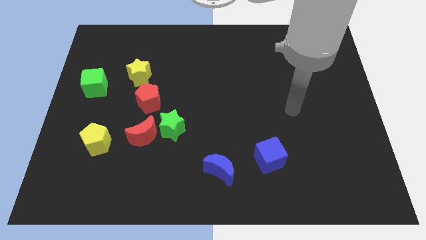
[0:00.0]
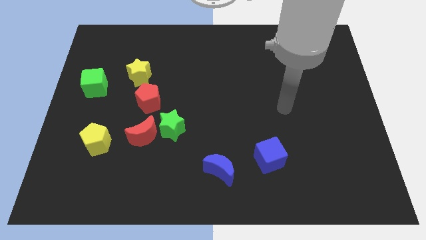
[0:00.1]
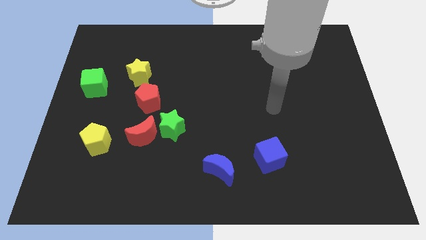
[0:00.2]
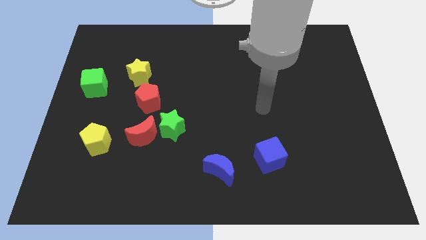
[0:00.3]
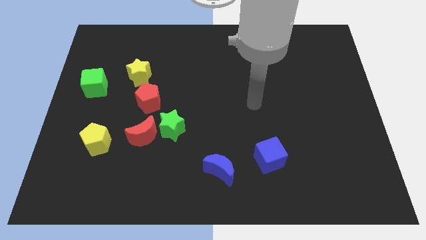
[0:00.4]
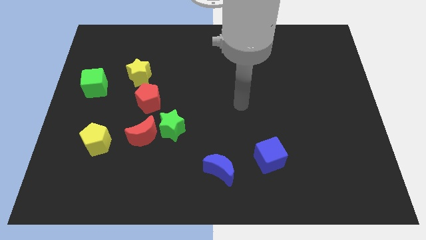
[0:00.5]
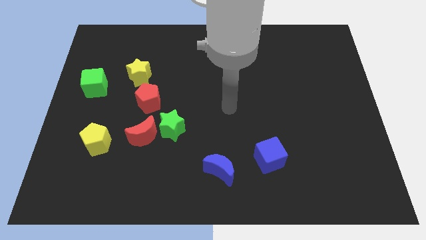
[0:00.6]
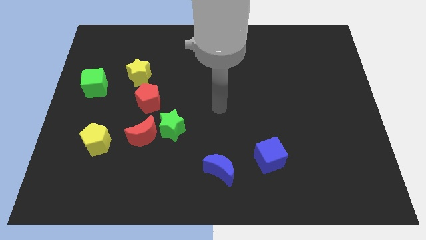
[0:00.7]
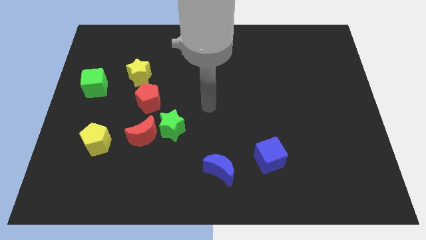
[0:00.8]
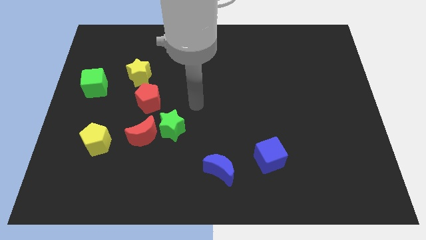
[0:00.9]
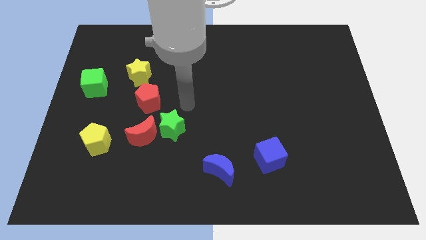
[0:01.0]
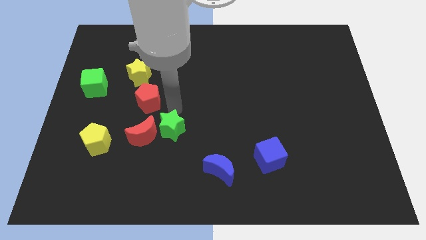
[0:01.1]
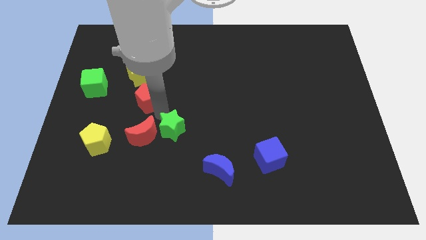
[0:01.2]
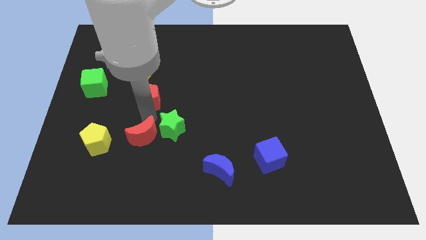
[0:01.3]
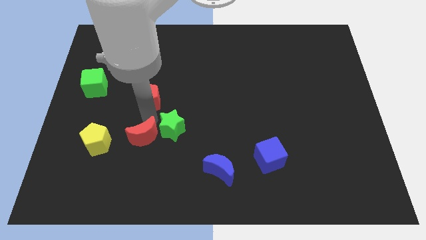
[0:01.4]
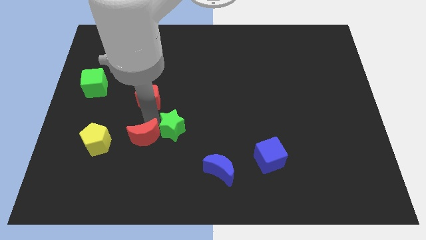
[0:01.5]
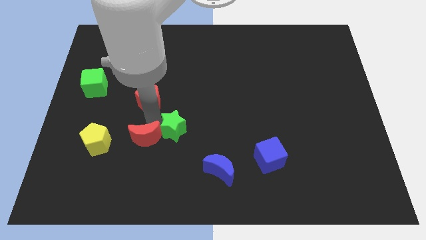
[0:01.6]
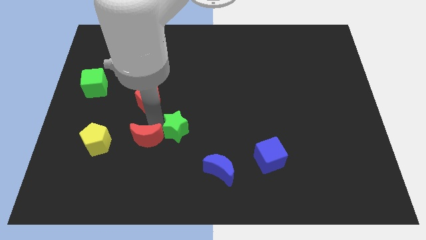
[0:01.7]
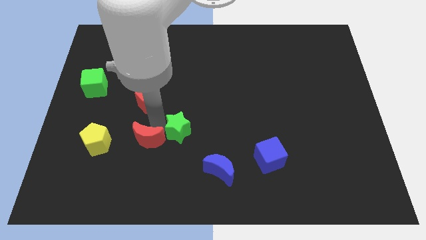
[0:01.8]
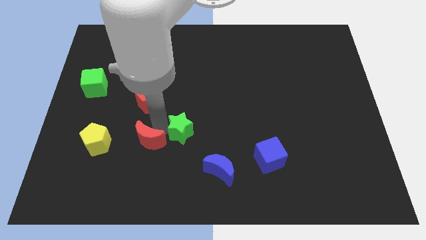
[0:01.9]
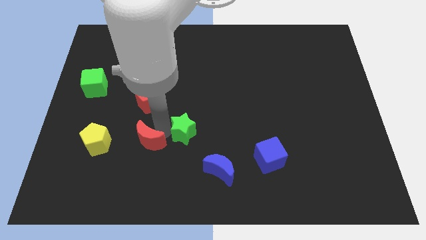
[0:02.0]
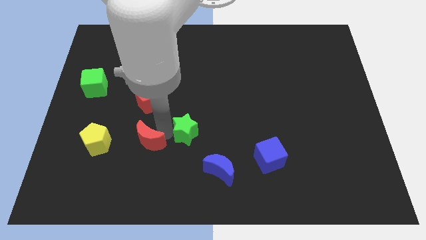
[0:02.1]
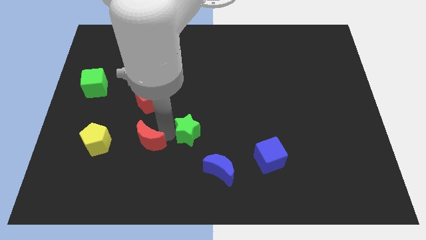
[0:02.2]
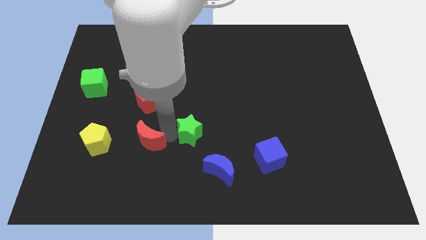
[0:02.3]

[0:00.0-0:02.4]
pull the green star apart from the red moon and red pentagon

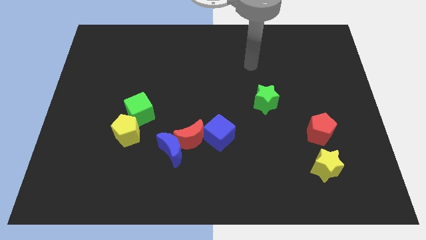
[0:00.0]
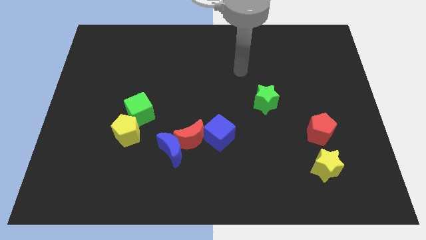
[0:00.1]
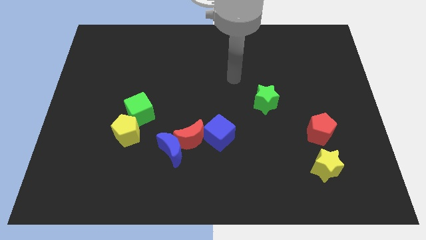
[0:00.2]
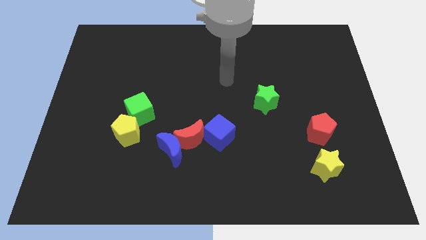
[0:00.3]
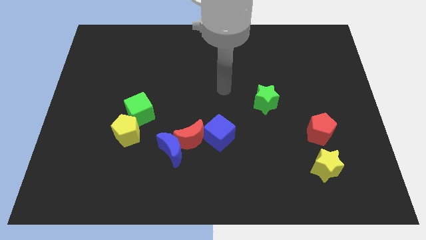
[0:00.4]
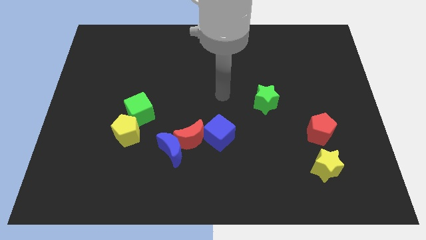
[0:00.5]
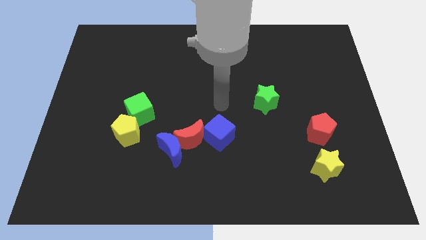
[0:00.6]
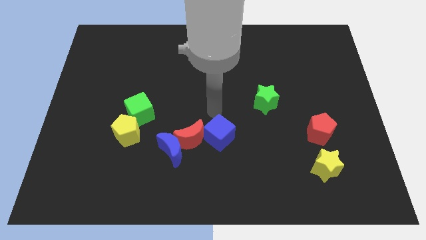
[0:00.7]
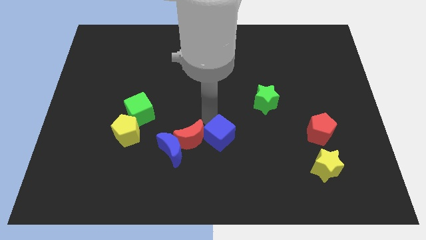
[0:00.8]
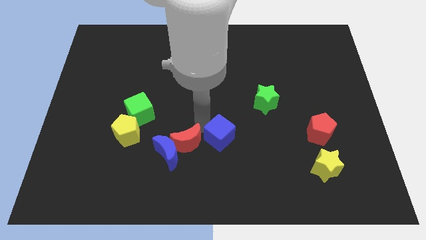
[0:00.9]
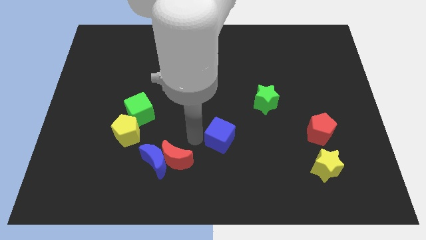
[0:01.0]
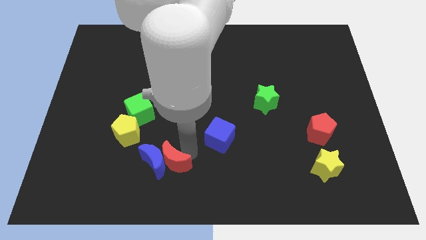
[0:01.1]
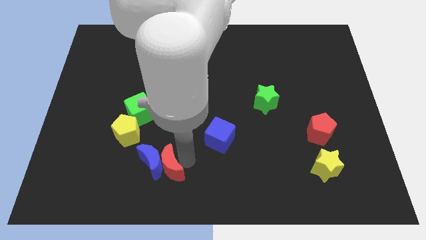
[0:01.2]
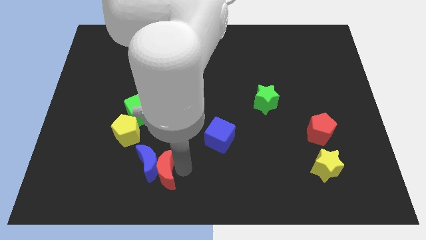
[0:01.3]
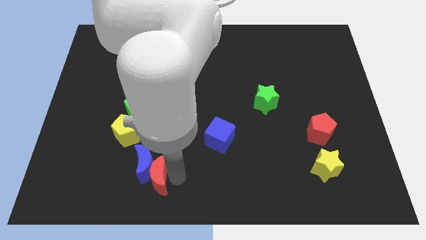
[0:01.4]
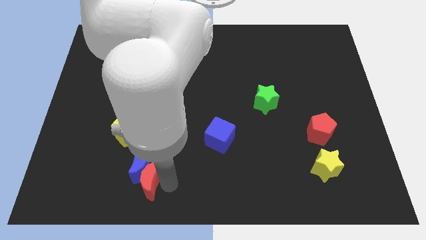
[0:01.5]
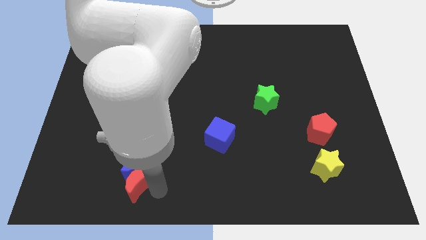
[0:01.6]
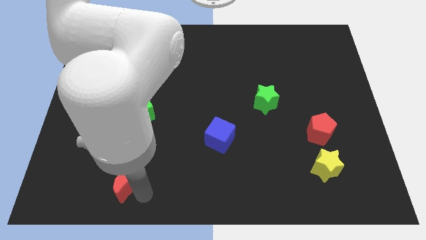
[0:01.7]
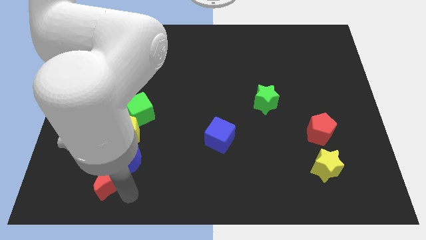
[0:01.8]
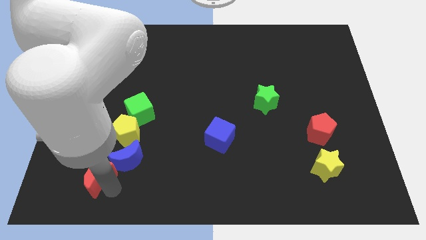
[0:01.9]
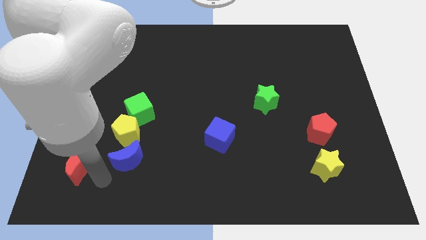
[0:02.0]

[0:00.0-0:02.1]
pull the blue moon apart from the red moon

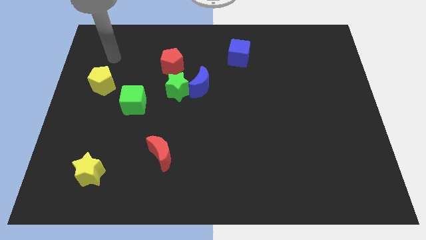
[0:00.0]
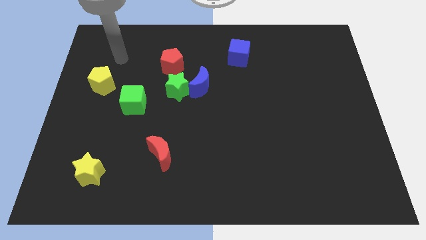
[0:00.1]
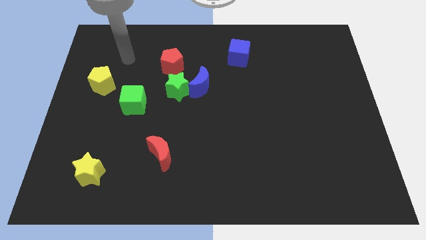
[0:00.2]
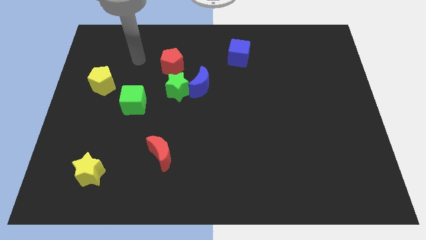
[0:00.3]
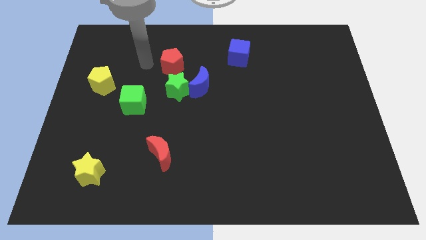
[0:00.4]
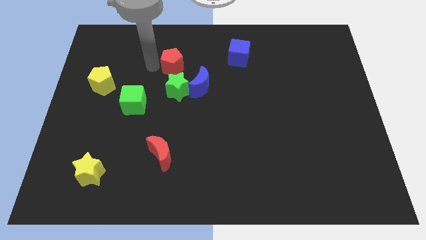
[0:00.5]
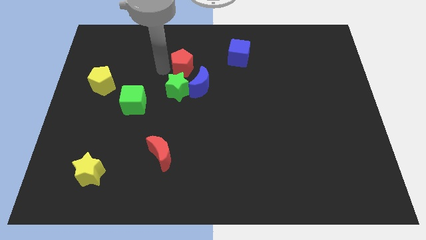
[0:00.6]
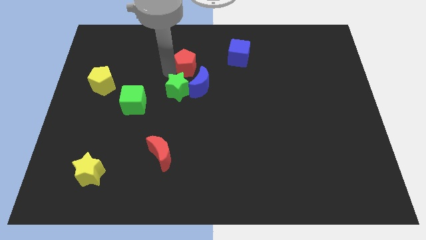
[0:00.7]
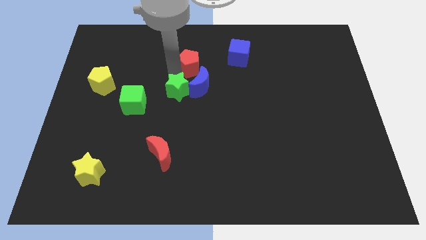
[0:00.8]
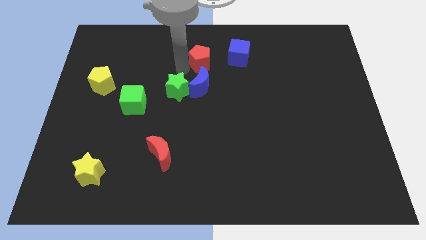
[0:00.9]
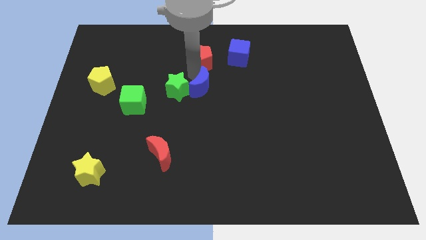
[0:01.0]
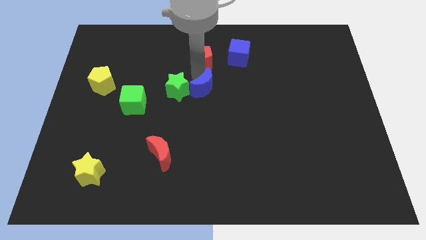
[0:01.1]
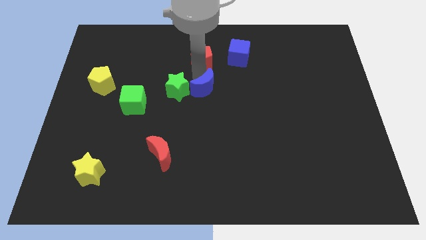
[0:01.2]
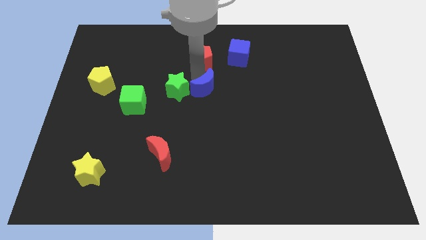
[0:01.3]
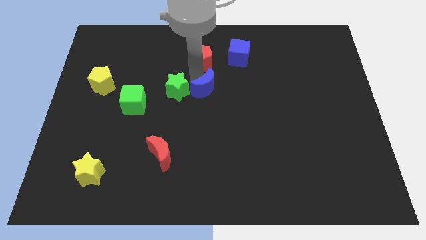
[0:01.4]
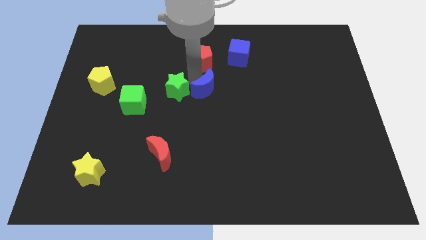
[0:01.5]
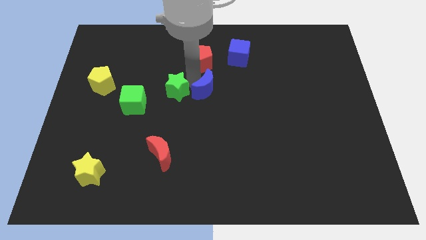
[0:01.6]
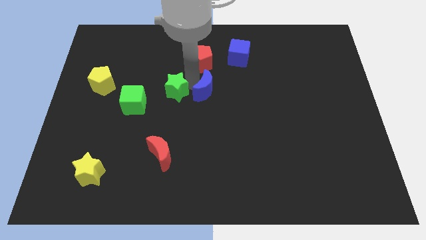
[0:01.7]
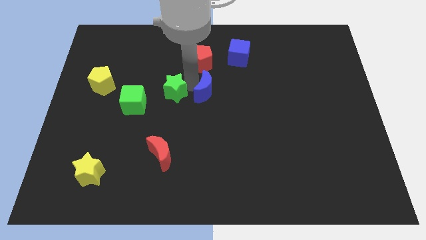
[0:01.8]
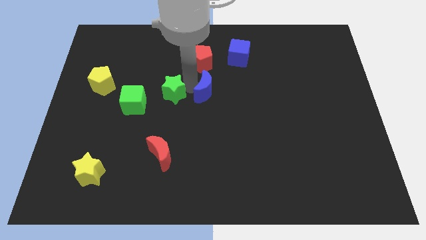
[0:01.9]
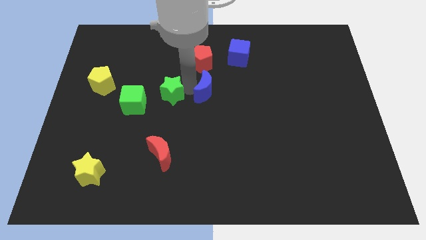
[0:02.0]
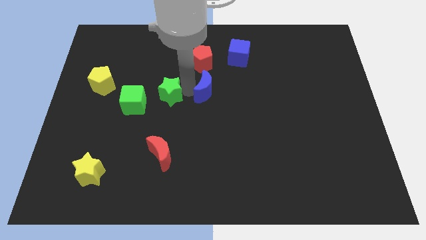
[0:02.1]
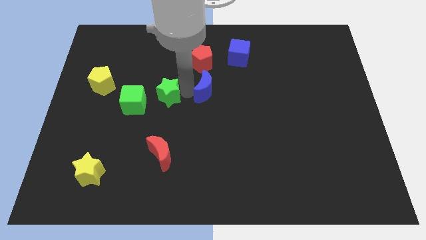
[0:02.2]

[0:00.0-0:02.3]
separate the green star from the blue moon and red pentagon

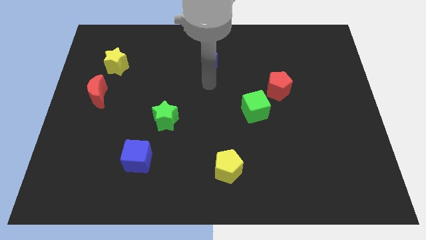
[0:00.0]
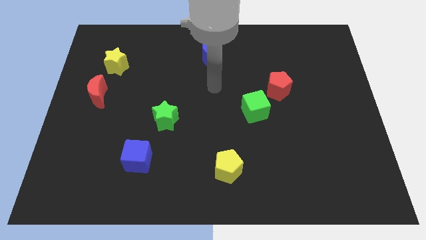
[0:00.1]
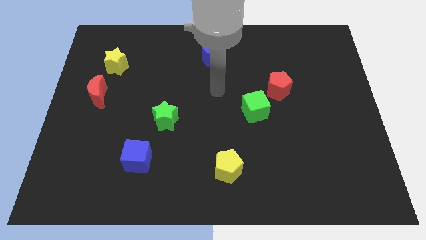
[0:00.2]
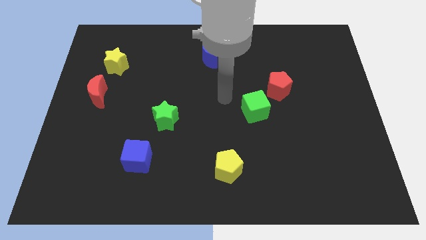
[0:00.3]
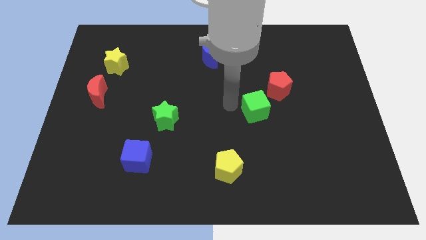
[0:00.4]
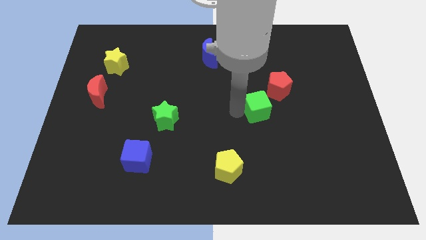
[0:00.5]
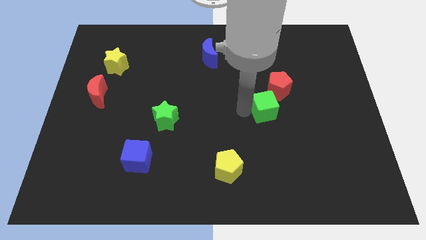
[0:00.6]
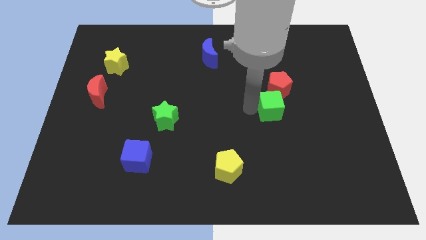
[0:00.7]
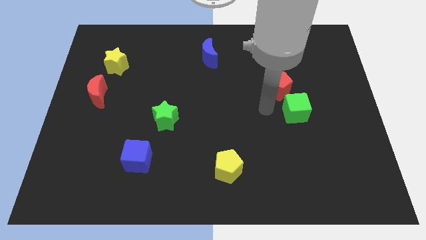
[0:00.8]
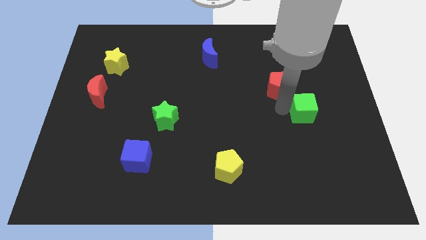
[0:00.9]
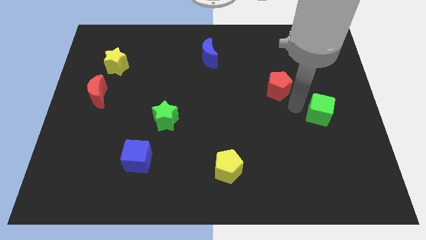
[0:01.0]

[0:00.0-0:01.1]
separate the red pentagon from the green cube

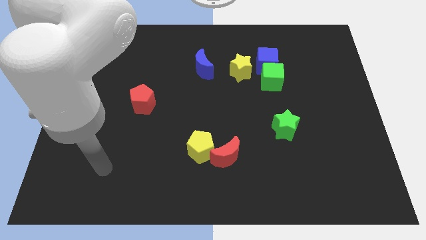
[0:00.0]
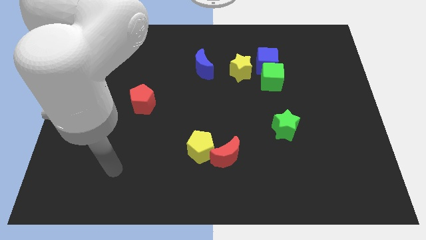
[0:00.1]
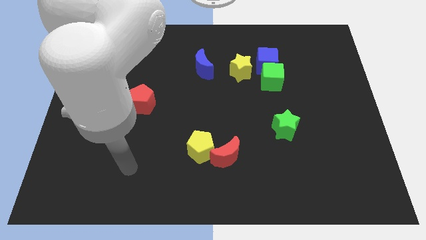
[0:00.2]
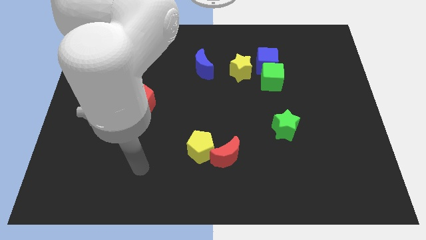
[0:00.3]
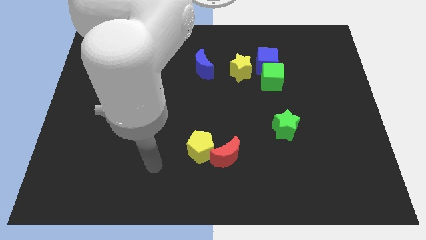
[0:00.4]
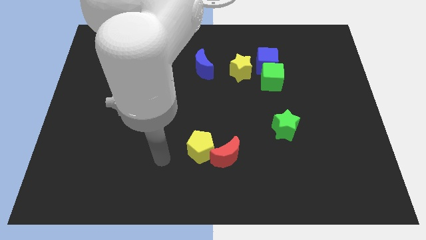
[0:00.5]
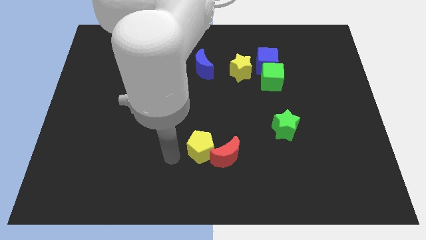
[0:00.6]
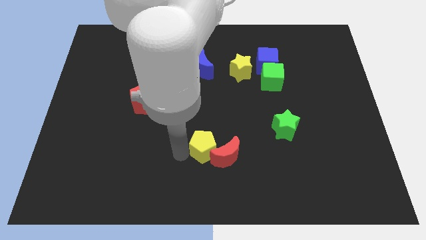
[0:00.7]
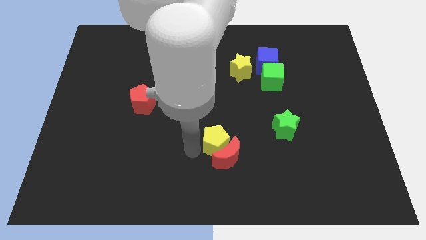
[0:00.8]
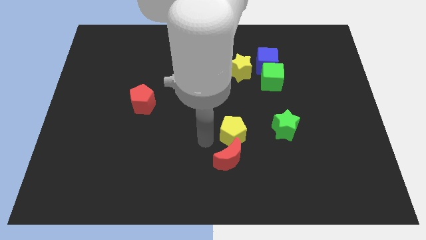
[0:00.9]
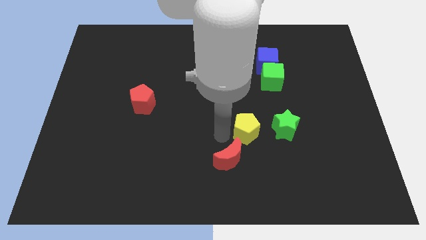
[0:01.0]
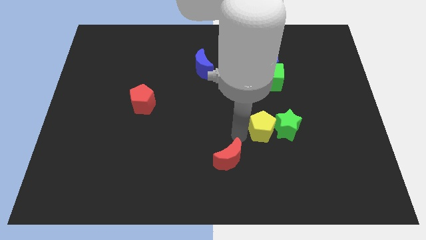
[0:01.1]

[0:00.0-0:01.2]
separate the red moon from the yellow pentagon

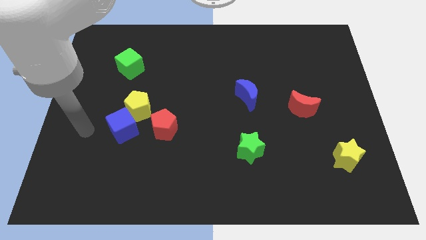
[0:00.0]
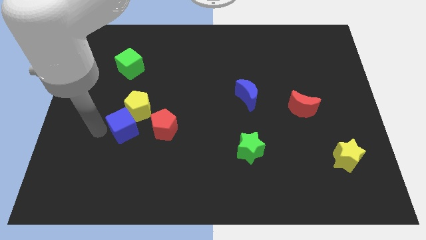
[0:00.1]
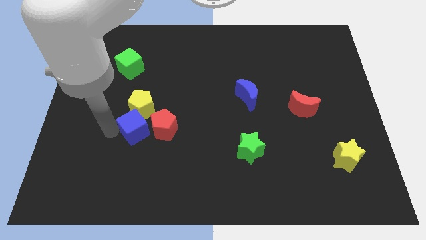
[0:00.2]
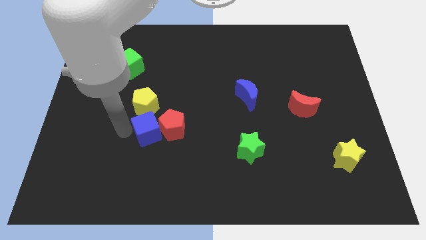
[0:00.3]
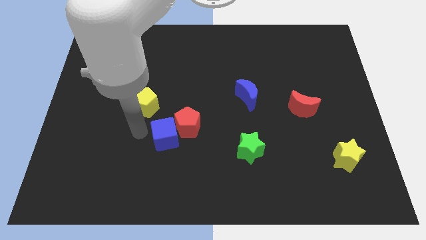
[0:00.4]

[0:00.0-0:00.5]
separate the yellow pentagon from the blue cube and red pentagon
